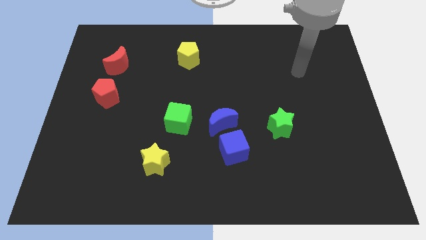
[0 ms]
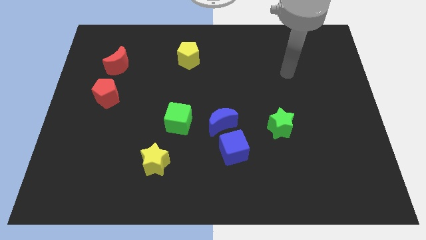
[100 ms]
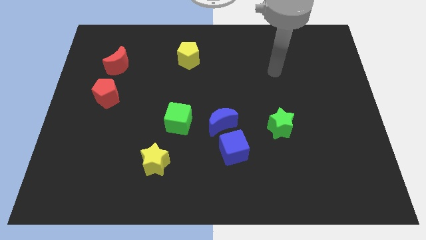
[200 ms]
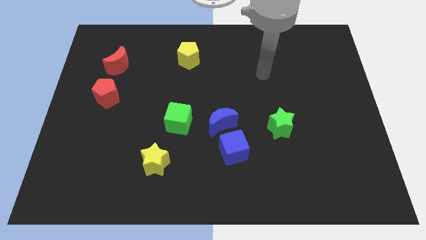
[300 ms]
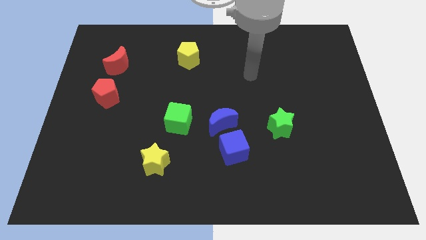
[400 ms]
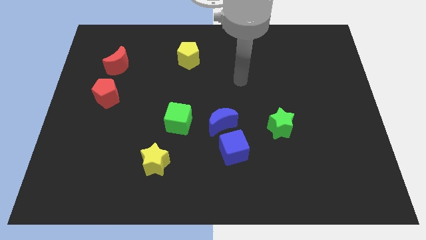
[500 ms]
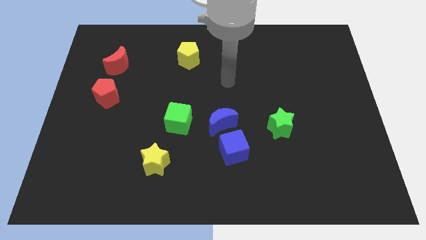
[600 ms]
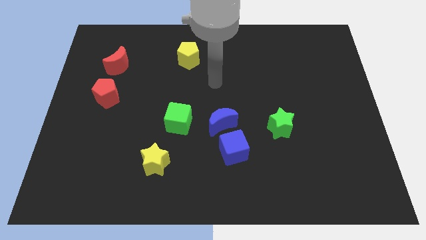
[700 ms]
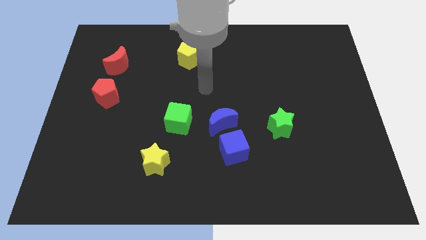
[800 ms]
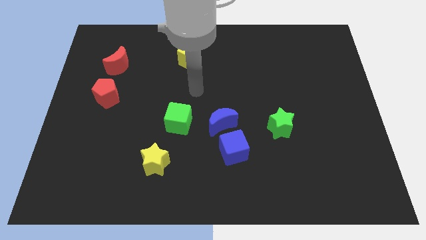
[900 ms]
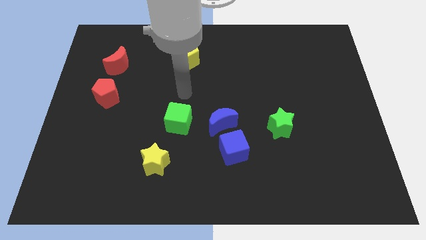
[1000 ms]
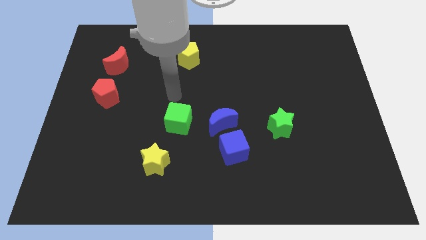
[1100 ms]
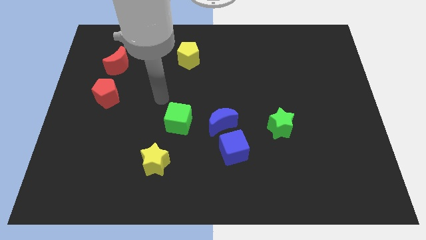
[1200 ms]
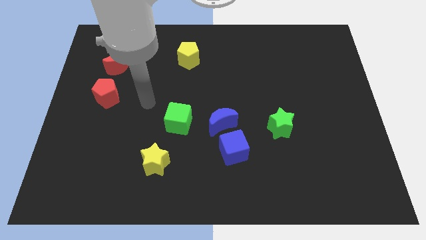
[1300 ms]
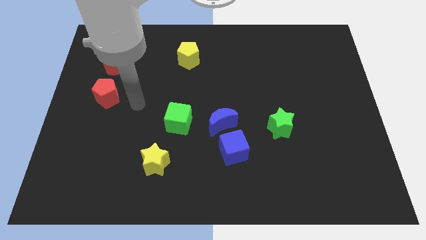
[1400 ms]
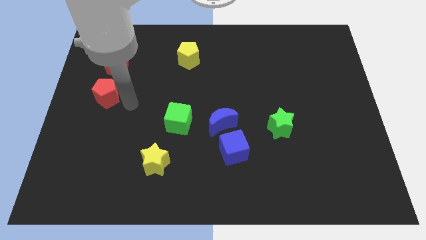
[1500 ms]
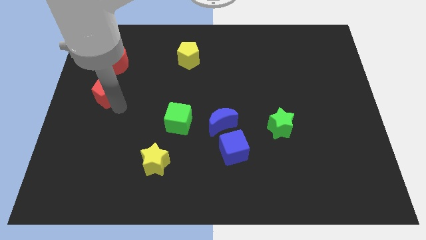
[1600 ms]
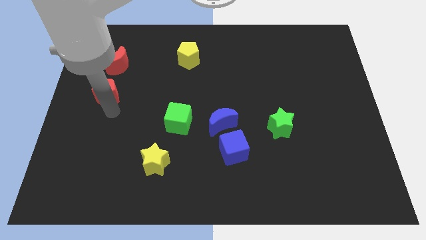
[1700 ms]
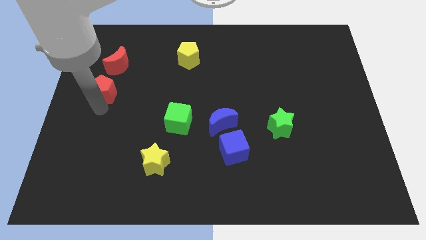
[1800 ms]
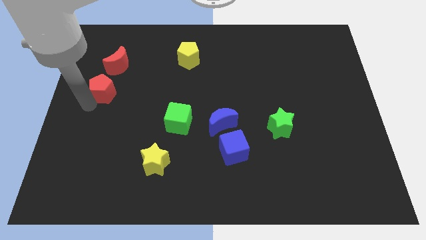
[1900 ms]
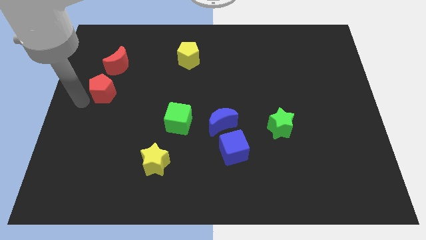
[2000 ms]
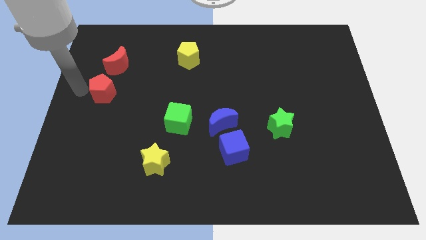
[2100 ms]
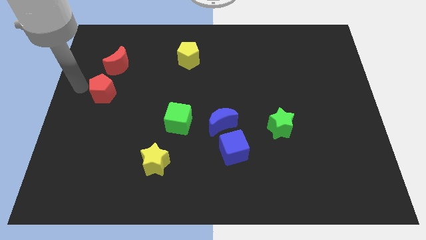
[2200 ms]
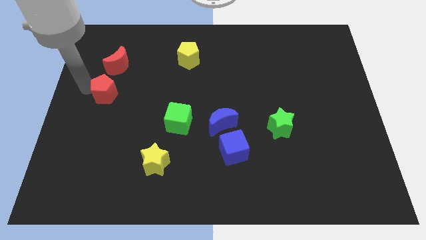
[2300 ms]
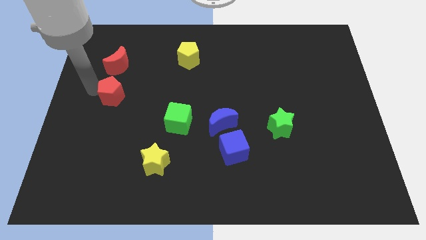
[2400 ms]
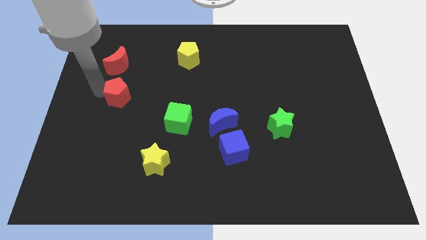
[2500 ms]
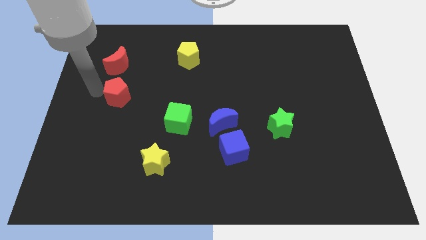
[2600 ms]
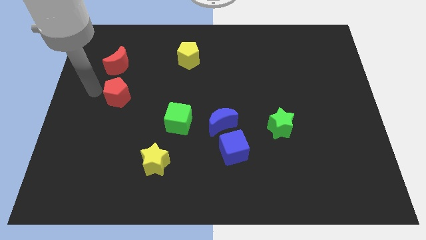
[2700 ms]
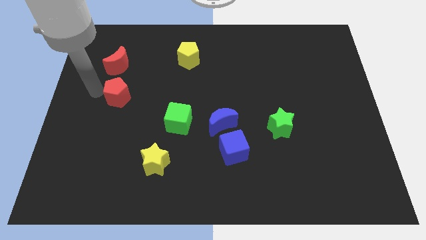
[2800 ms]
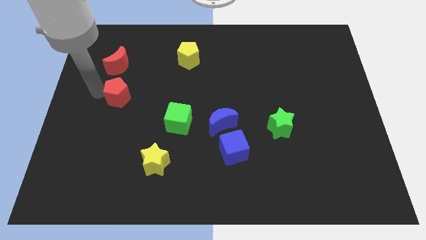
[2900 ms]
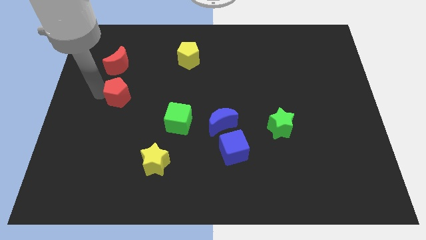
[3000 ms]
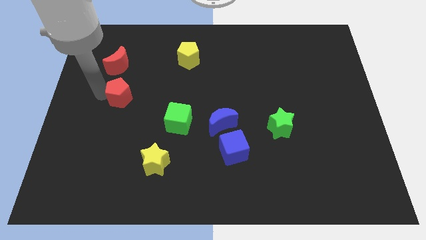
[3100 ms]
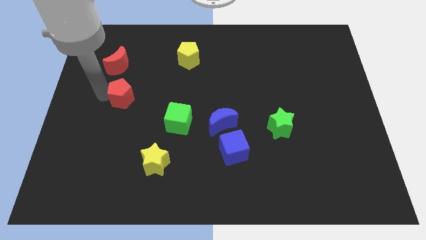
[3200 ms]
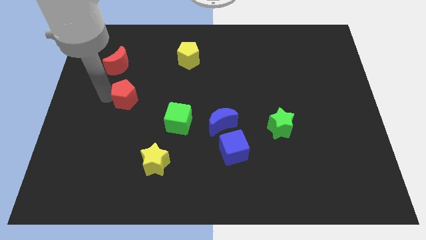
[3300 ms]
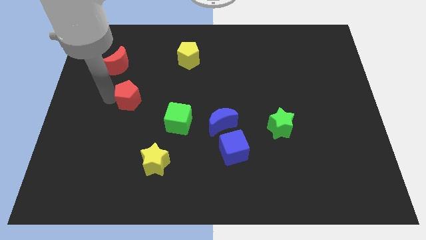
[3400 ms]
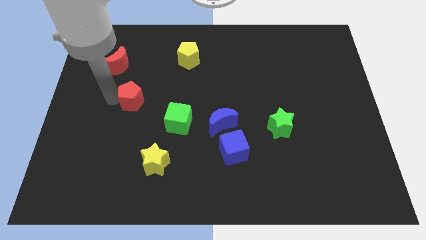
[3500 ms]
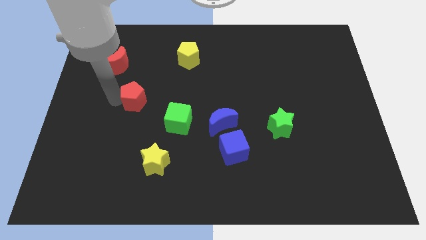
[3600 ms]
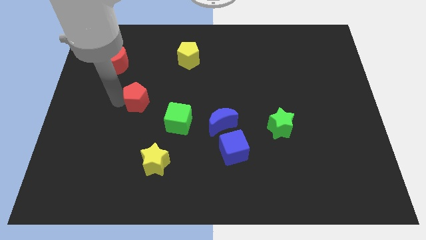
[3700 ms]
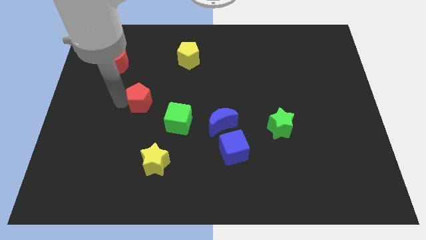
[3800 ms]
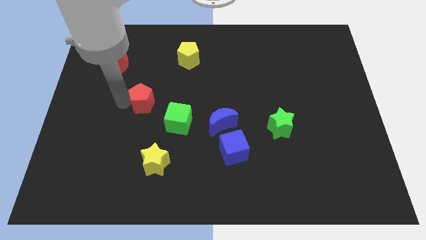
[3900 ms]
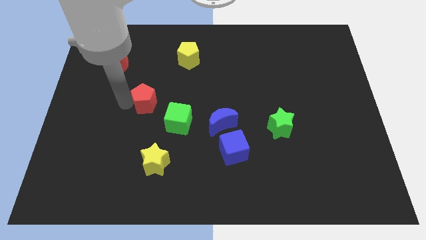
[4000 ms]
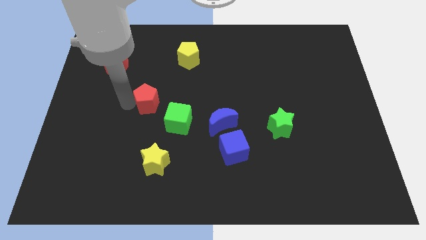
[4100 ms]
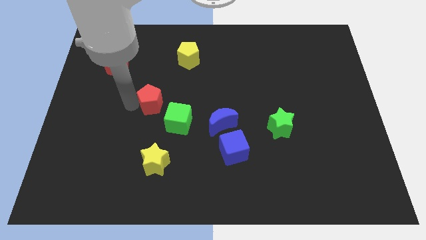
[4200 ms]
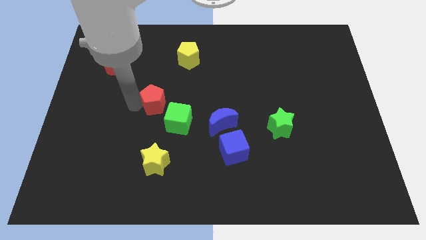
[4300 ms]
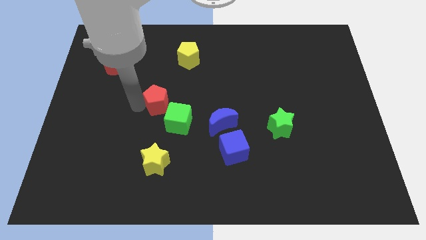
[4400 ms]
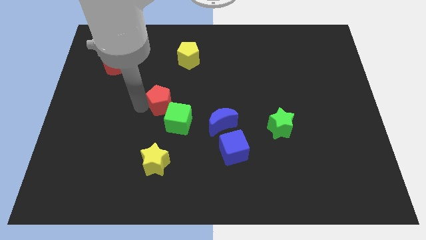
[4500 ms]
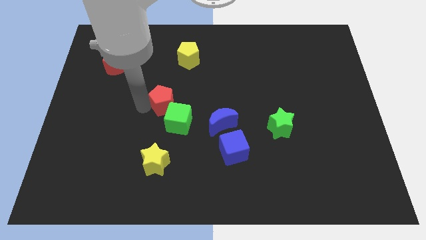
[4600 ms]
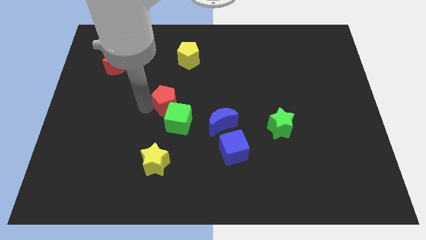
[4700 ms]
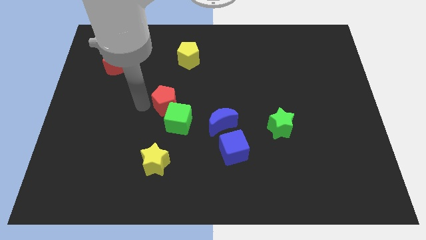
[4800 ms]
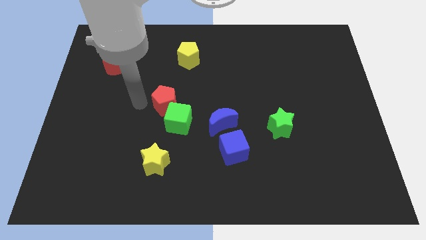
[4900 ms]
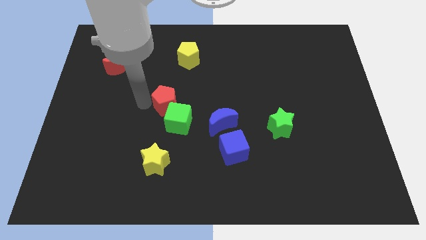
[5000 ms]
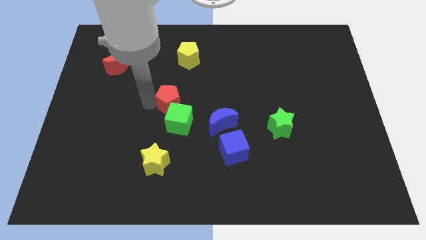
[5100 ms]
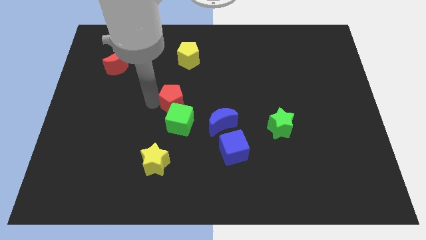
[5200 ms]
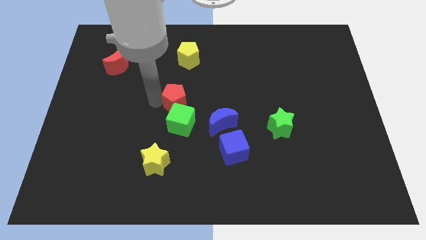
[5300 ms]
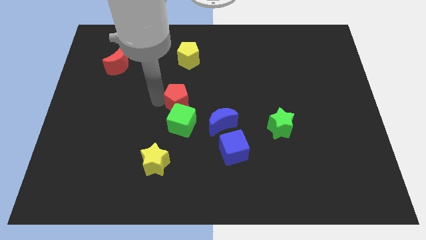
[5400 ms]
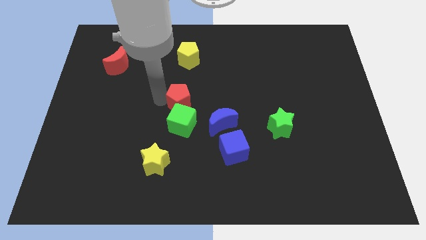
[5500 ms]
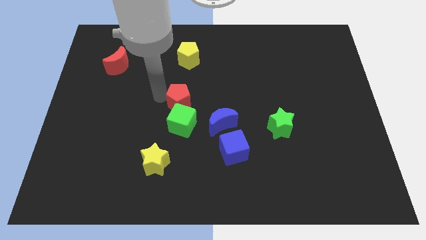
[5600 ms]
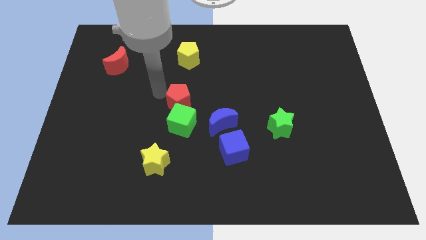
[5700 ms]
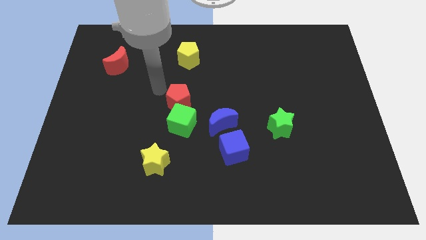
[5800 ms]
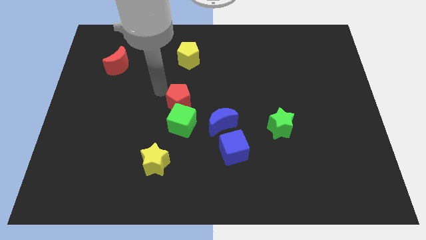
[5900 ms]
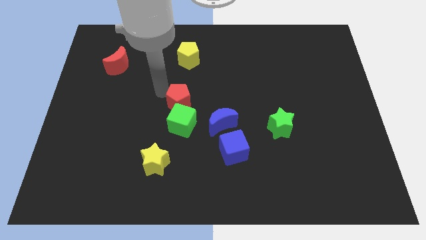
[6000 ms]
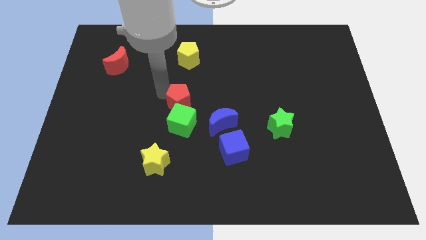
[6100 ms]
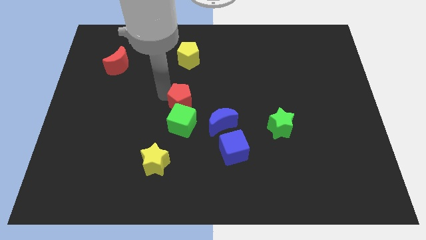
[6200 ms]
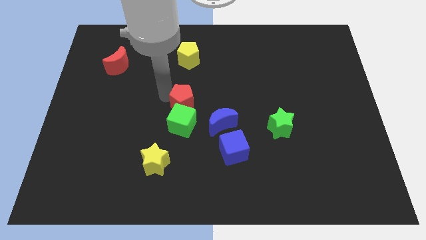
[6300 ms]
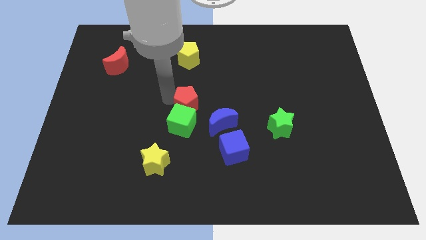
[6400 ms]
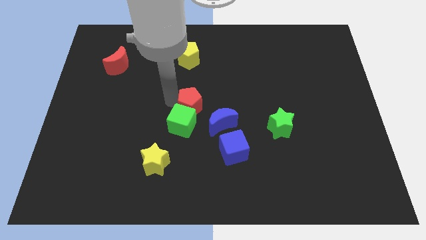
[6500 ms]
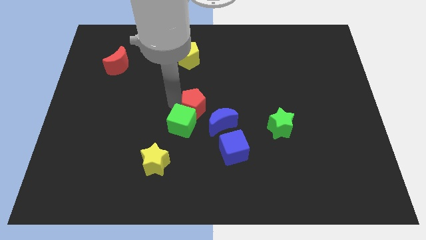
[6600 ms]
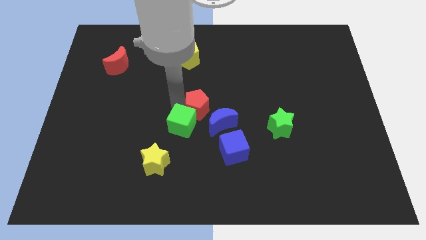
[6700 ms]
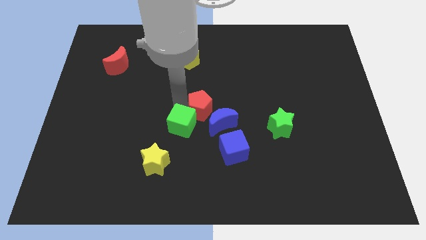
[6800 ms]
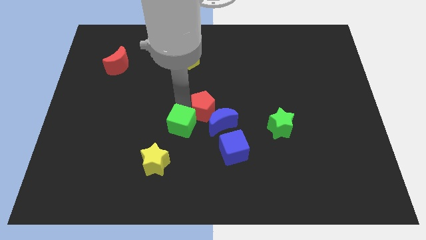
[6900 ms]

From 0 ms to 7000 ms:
move the red pentagon close to the blue moon
